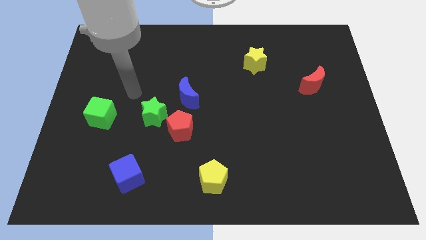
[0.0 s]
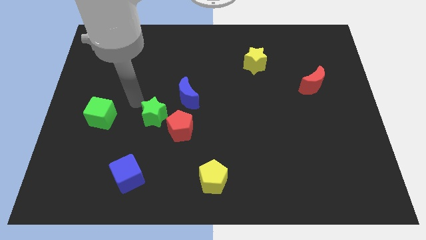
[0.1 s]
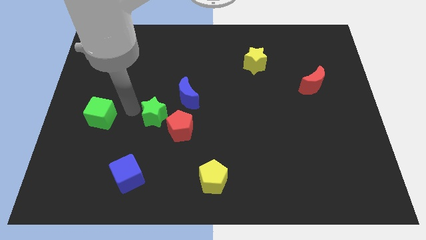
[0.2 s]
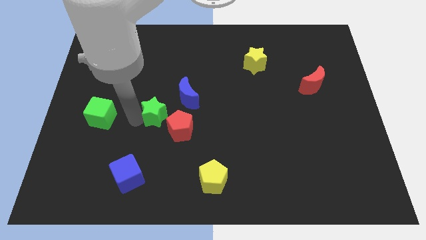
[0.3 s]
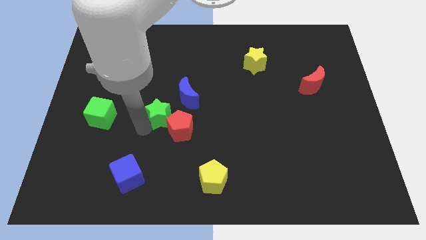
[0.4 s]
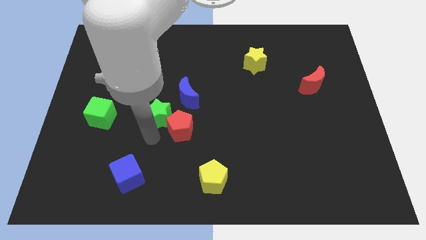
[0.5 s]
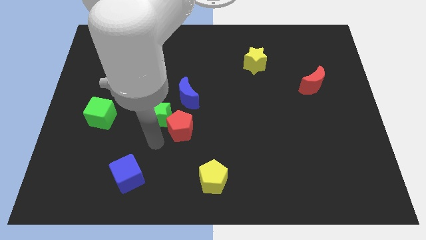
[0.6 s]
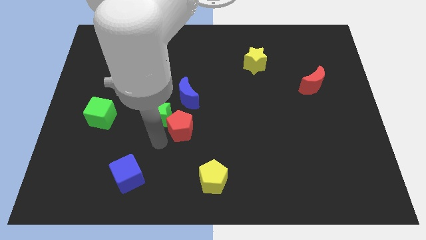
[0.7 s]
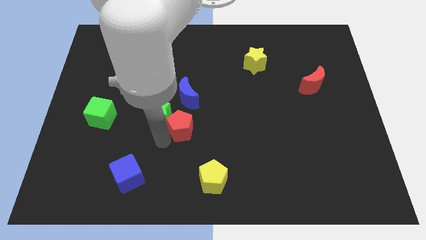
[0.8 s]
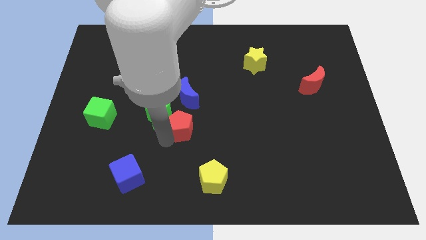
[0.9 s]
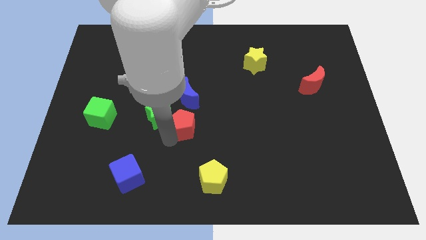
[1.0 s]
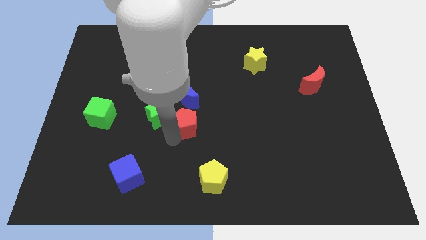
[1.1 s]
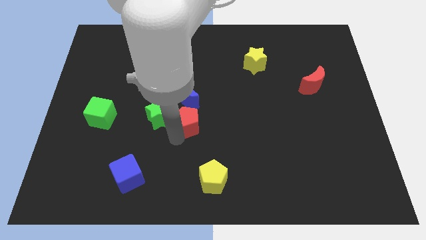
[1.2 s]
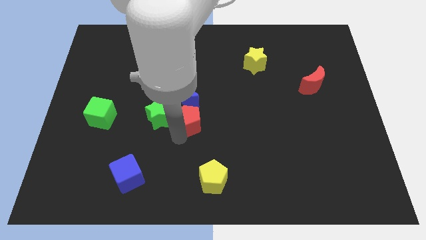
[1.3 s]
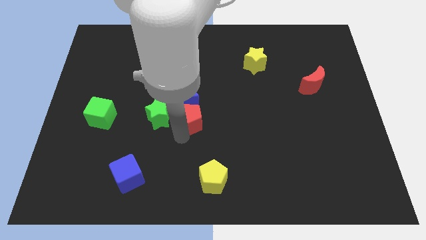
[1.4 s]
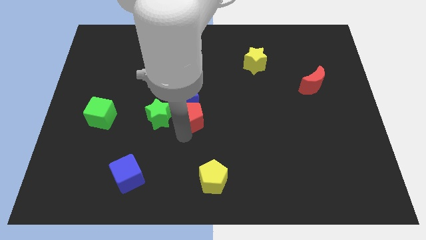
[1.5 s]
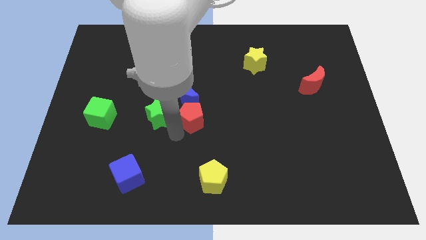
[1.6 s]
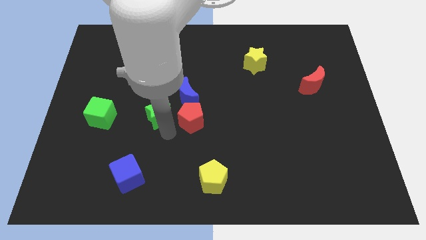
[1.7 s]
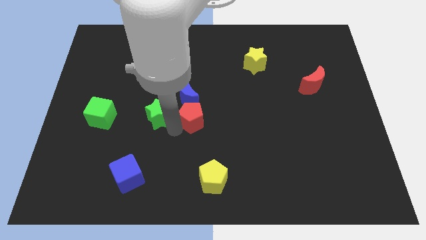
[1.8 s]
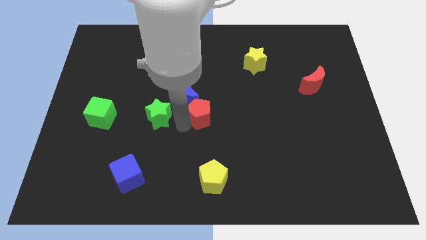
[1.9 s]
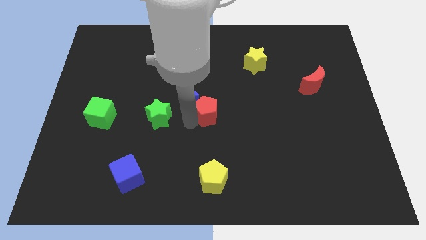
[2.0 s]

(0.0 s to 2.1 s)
push the red pentagon slightly up and right

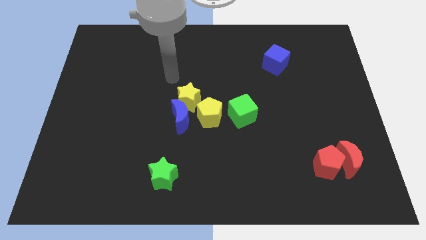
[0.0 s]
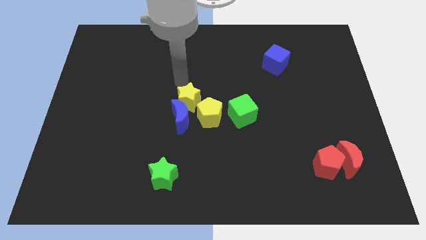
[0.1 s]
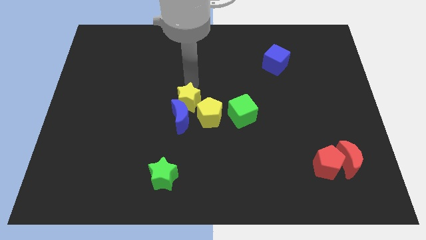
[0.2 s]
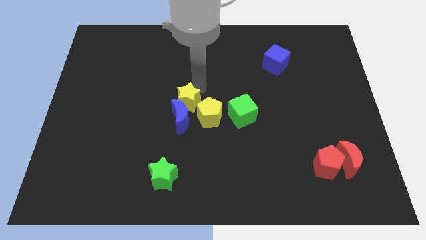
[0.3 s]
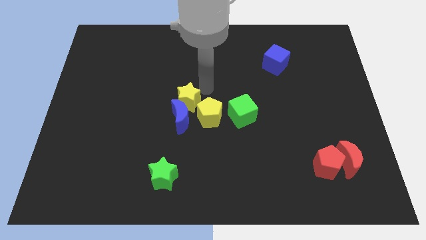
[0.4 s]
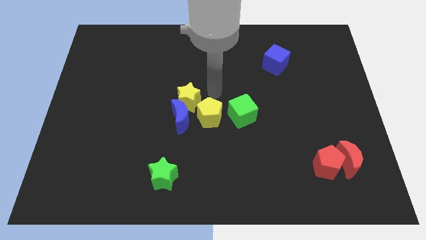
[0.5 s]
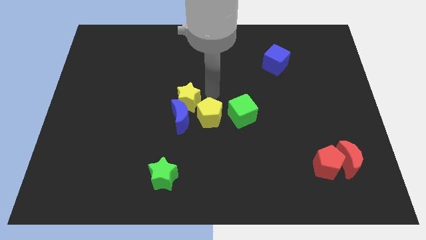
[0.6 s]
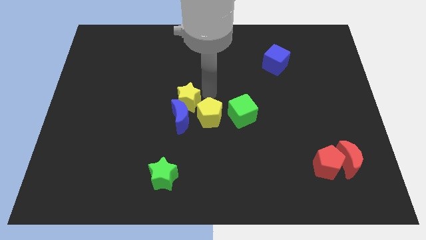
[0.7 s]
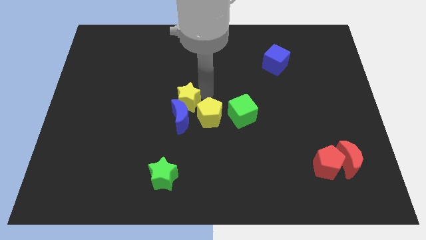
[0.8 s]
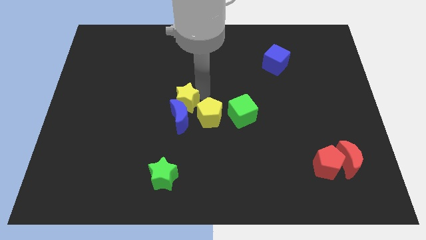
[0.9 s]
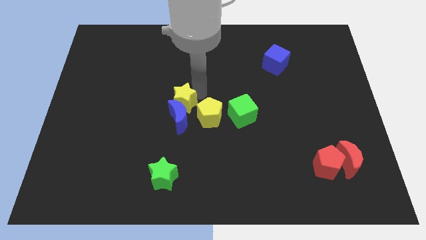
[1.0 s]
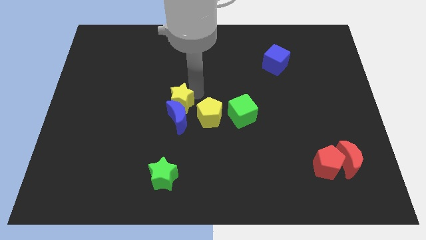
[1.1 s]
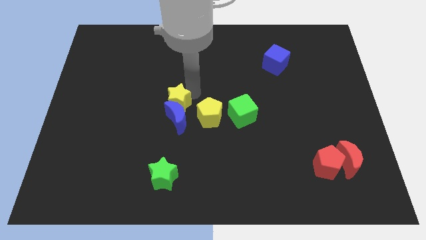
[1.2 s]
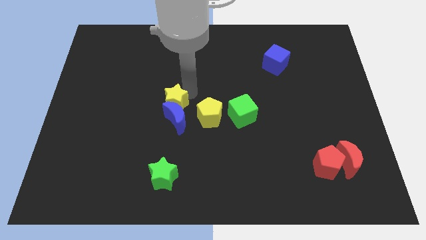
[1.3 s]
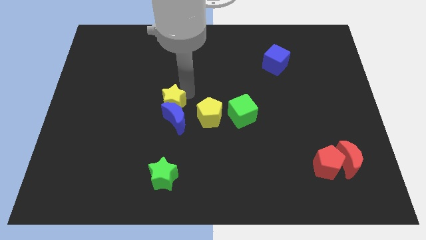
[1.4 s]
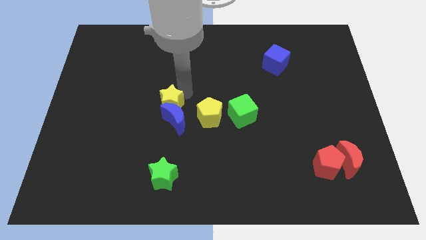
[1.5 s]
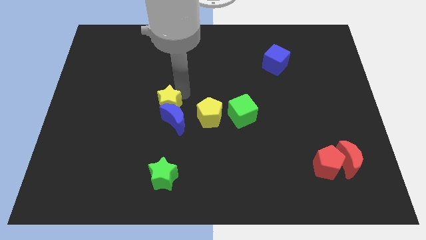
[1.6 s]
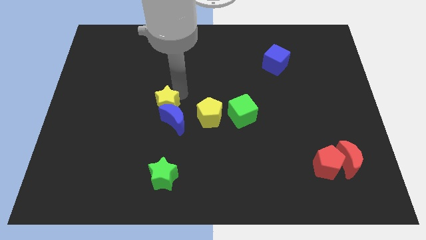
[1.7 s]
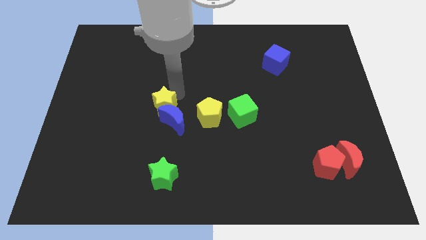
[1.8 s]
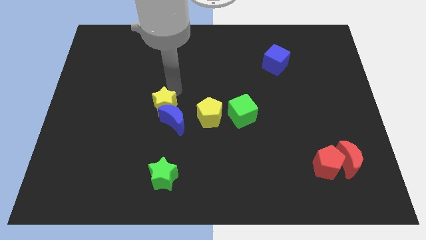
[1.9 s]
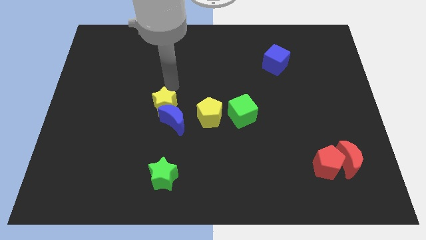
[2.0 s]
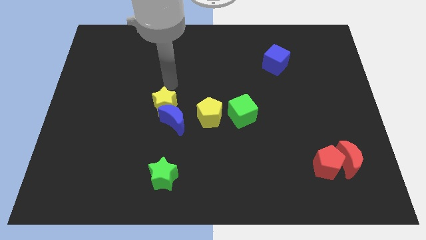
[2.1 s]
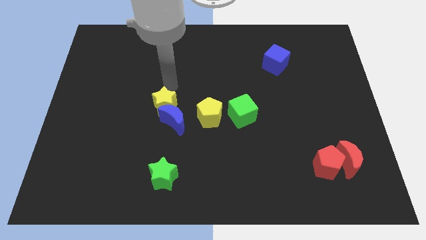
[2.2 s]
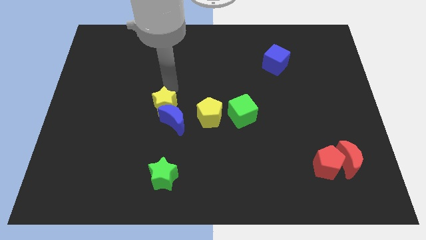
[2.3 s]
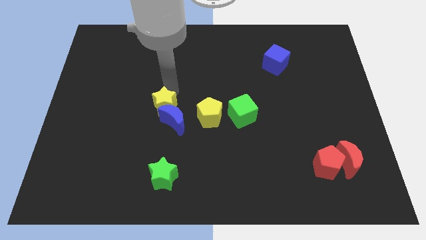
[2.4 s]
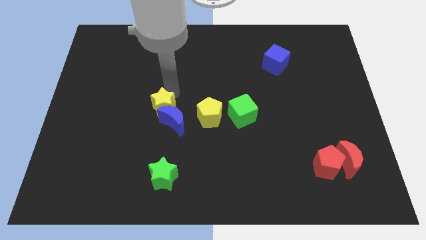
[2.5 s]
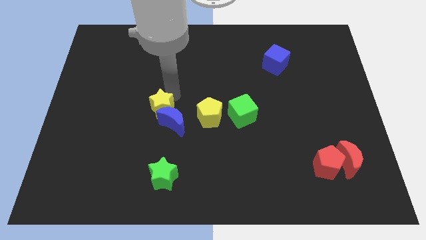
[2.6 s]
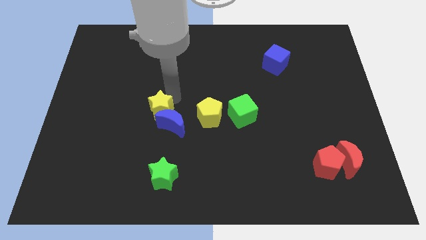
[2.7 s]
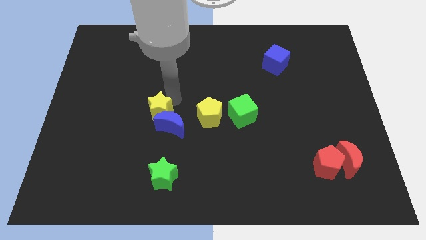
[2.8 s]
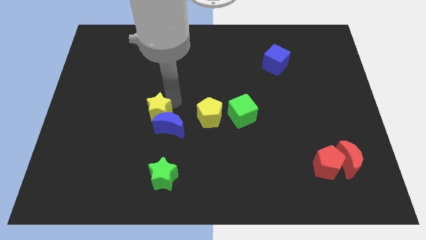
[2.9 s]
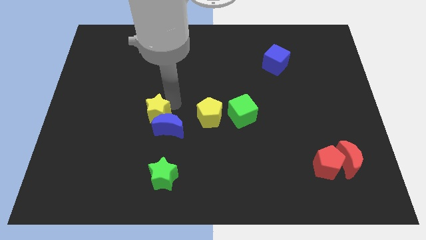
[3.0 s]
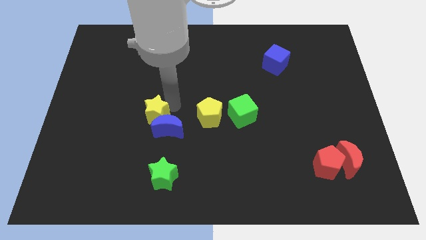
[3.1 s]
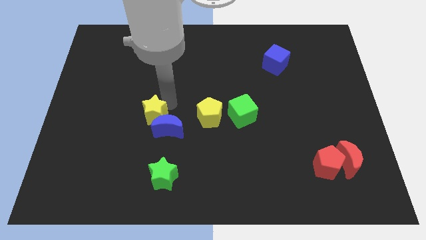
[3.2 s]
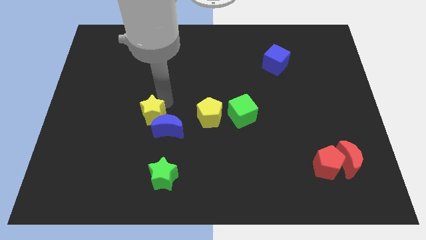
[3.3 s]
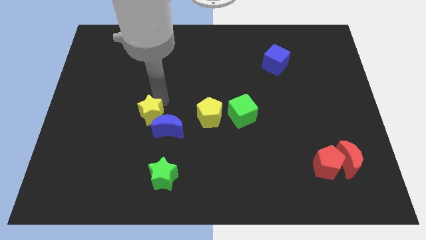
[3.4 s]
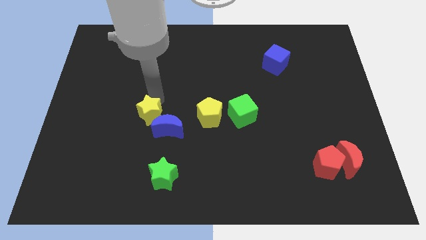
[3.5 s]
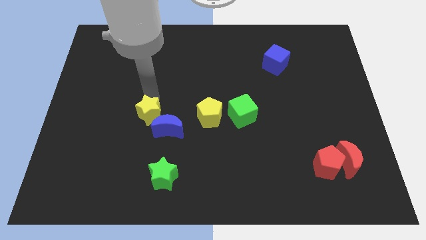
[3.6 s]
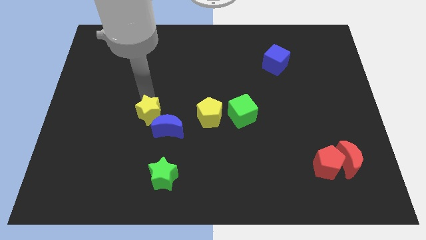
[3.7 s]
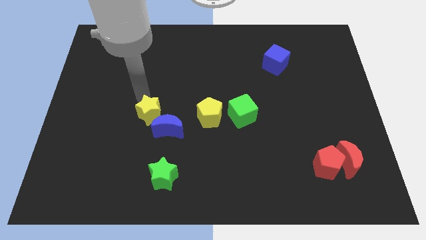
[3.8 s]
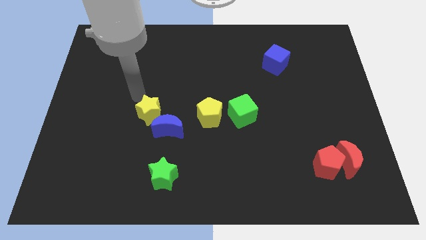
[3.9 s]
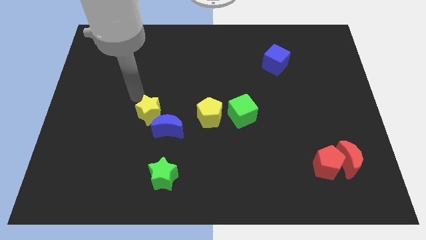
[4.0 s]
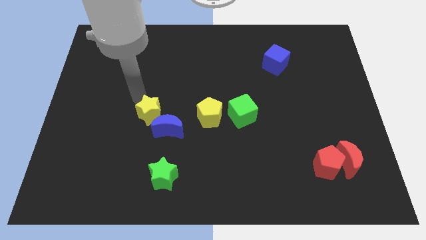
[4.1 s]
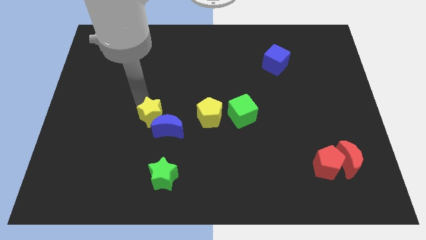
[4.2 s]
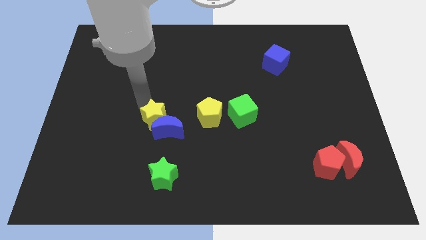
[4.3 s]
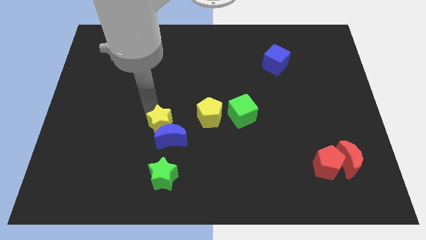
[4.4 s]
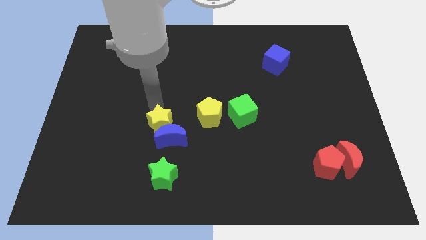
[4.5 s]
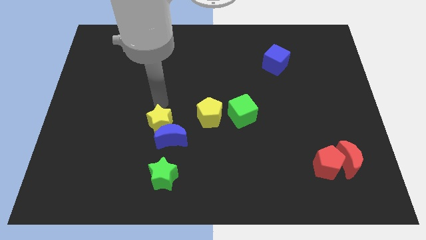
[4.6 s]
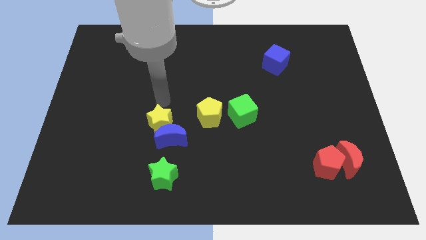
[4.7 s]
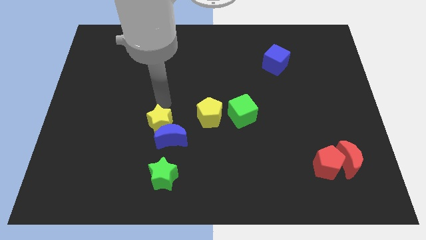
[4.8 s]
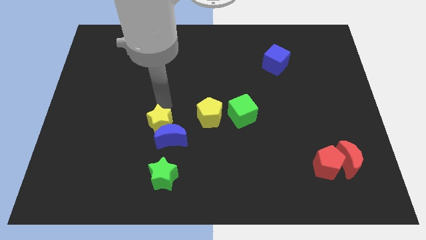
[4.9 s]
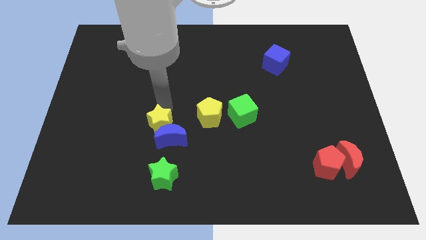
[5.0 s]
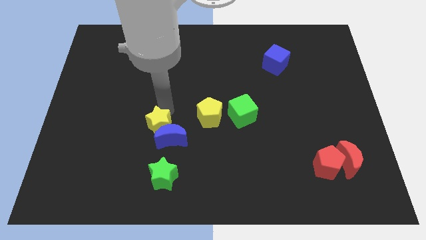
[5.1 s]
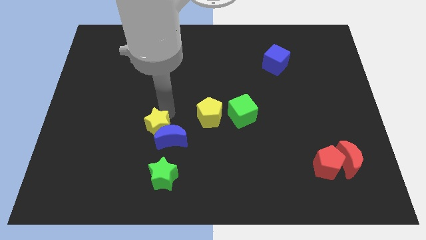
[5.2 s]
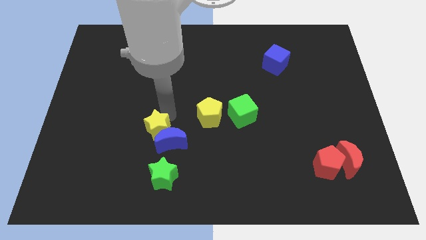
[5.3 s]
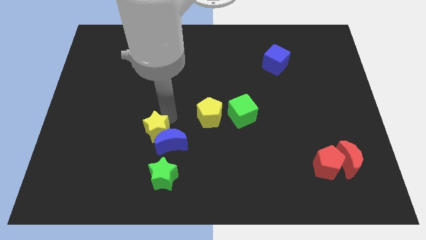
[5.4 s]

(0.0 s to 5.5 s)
slightly move the yellow star down

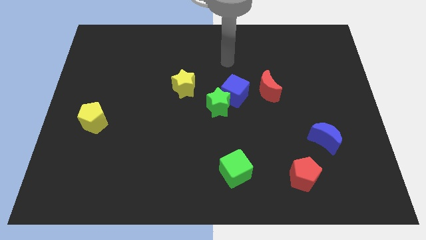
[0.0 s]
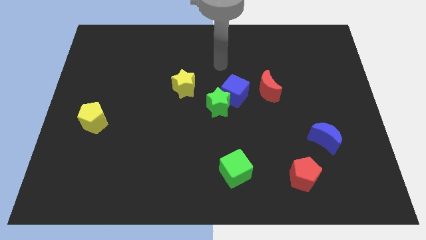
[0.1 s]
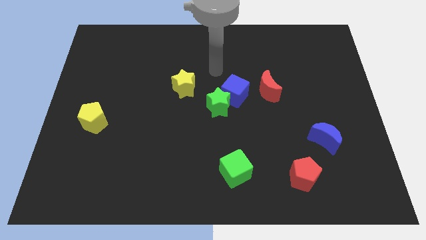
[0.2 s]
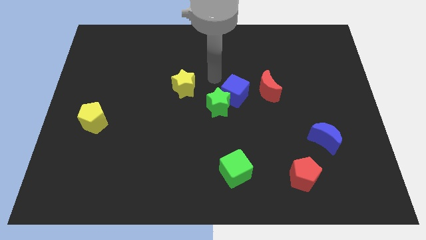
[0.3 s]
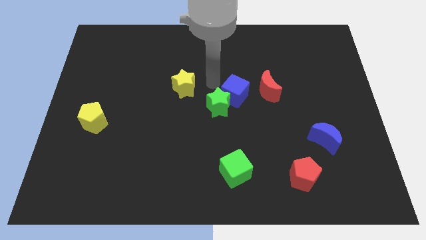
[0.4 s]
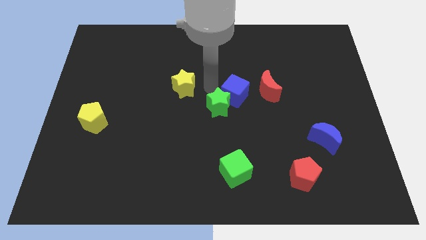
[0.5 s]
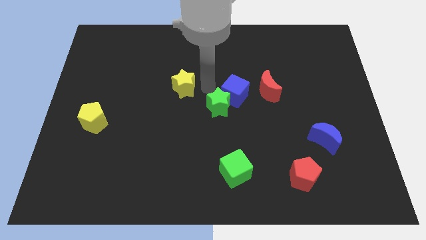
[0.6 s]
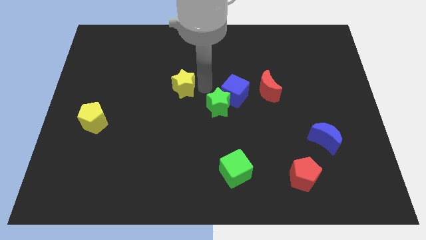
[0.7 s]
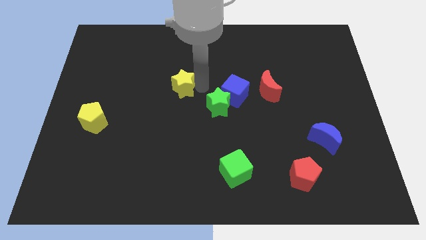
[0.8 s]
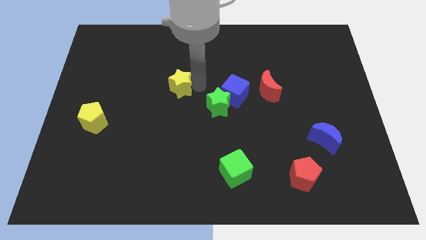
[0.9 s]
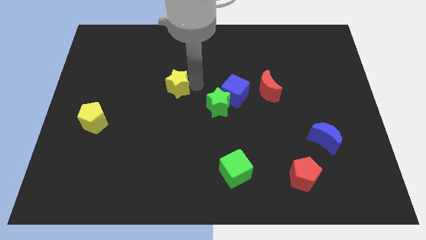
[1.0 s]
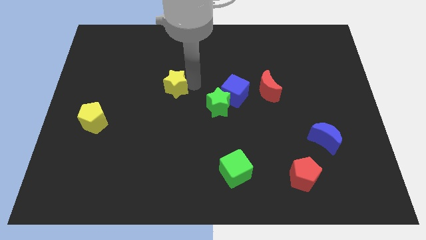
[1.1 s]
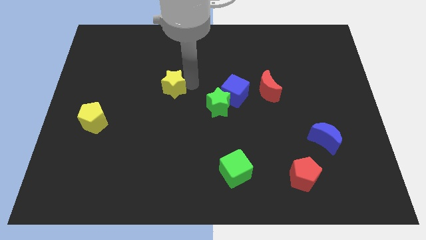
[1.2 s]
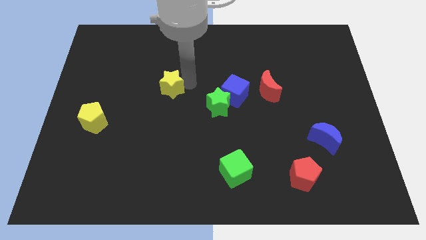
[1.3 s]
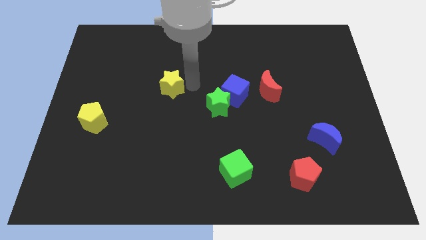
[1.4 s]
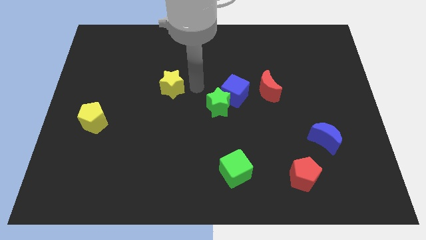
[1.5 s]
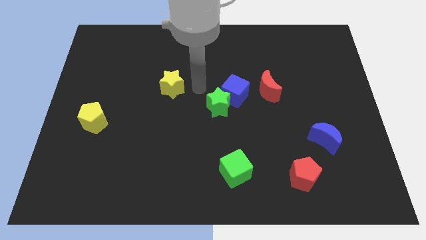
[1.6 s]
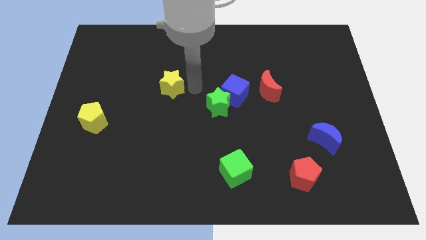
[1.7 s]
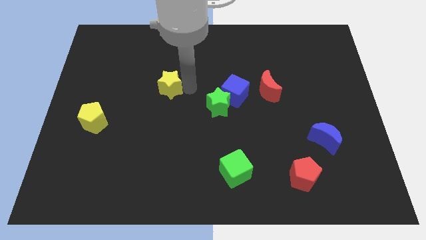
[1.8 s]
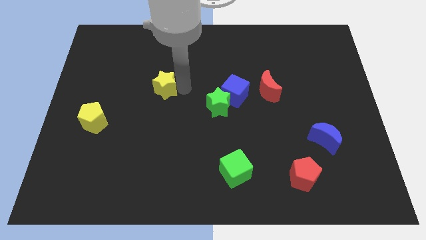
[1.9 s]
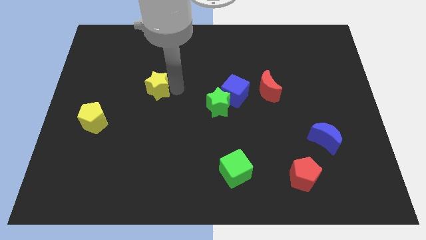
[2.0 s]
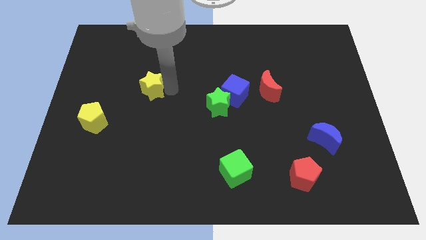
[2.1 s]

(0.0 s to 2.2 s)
move the yellow star to the left somewhat
